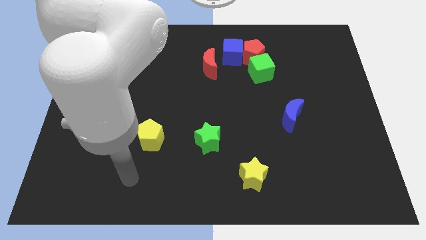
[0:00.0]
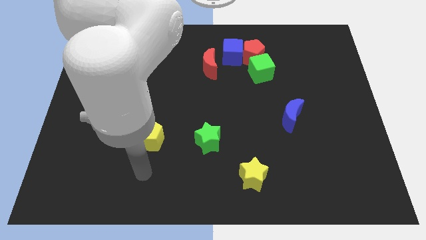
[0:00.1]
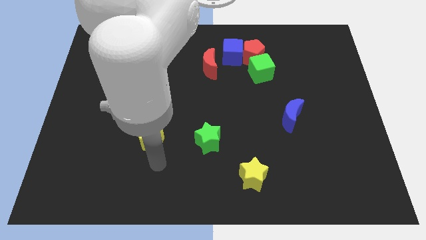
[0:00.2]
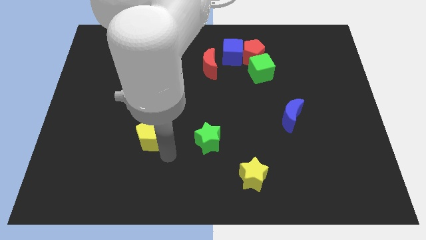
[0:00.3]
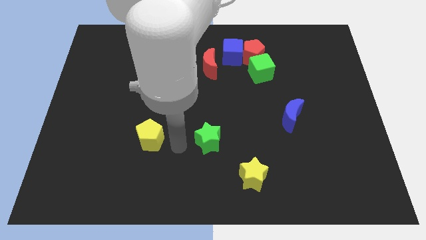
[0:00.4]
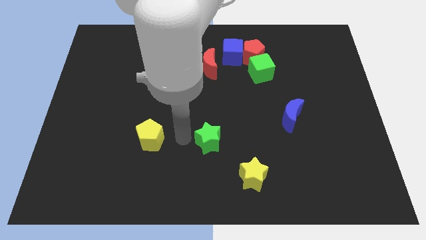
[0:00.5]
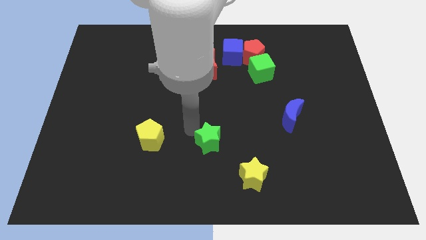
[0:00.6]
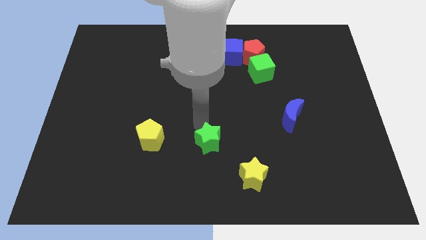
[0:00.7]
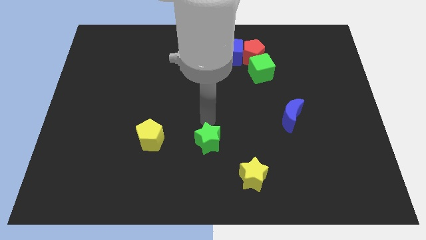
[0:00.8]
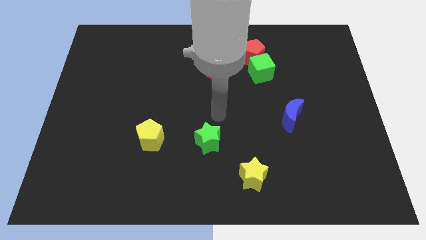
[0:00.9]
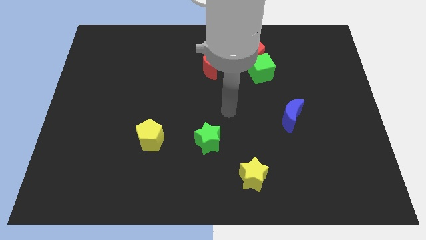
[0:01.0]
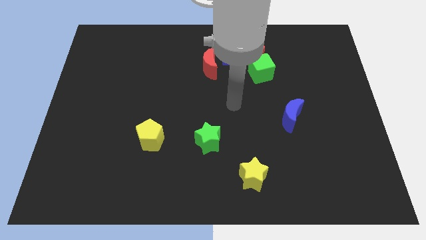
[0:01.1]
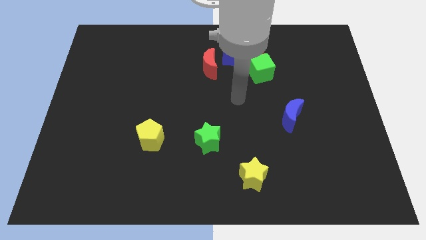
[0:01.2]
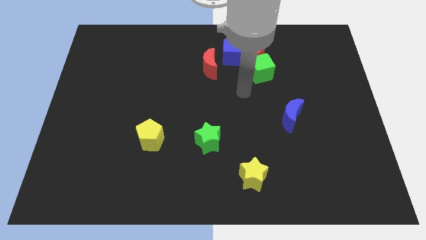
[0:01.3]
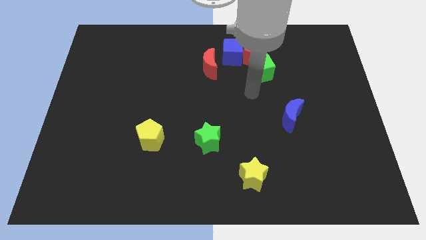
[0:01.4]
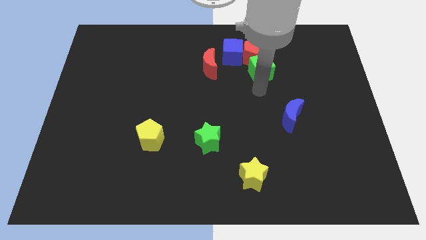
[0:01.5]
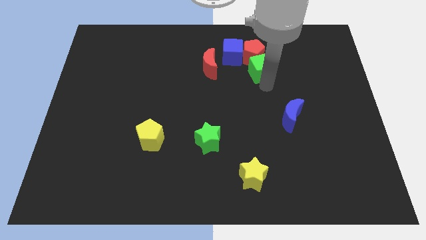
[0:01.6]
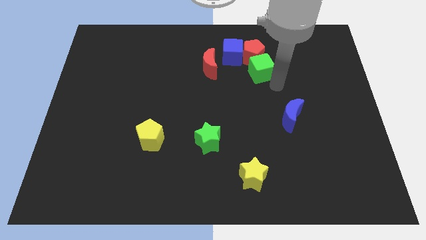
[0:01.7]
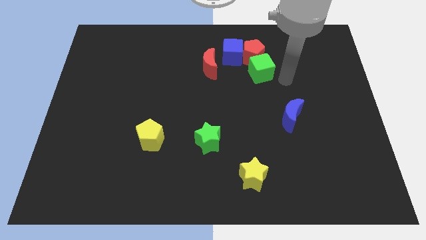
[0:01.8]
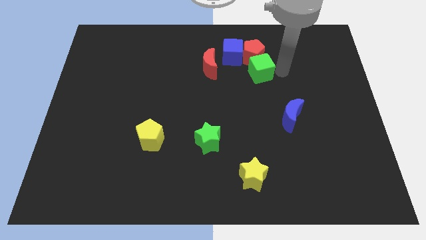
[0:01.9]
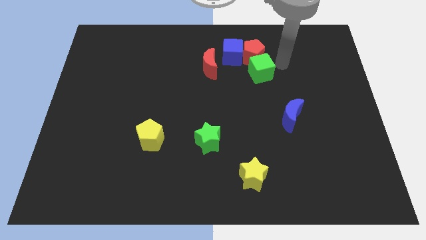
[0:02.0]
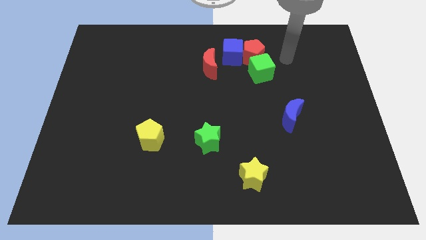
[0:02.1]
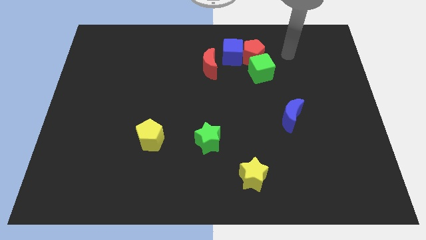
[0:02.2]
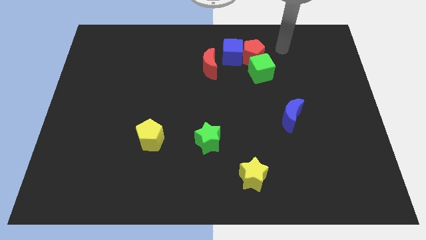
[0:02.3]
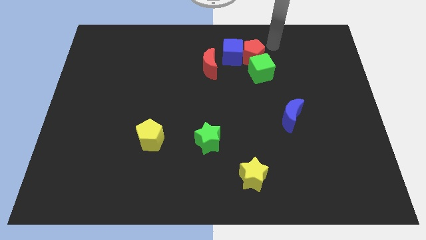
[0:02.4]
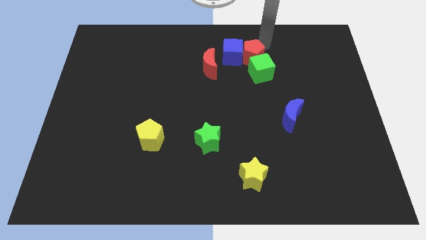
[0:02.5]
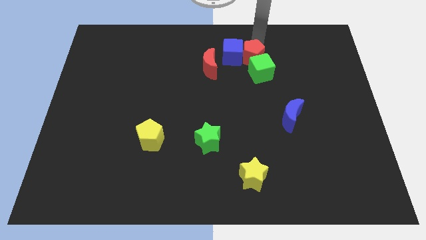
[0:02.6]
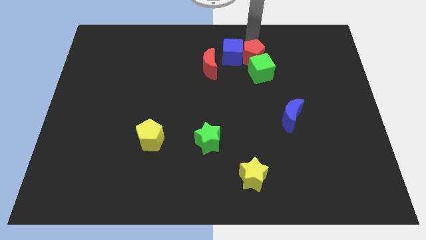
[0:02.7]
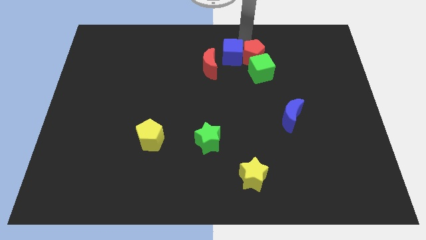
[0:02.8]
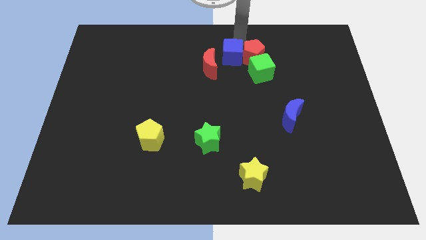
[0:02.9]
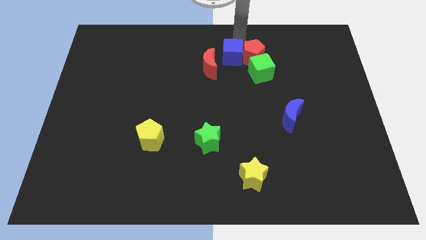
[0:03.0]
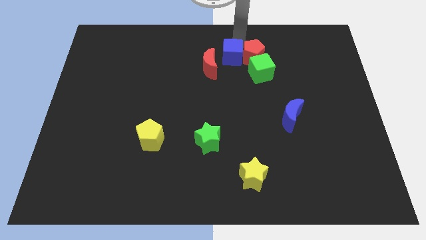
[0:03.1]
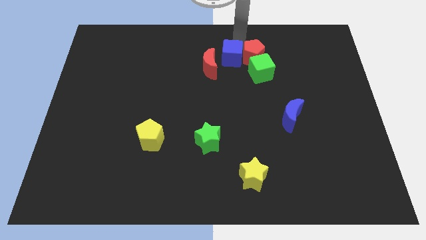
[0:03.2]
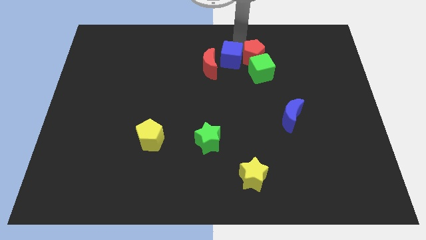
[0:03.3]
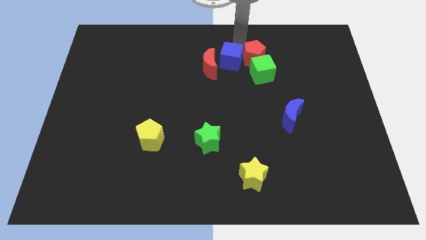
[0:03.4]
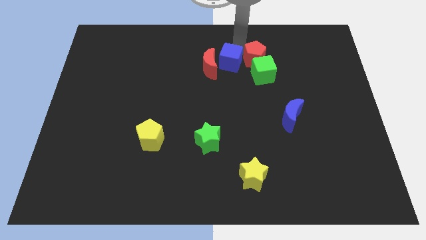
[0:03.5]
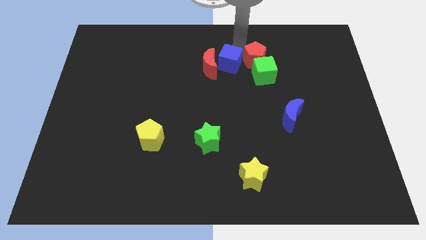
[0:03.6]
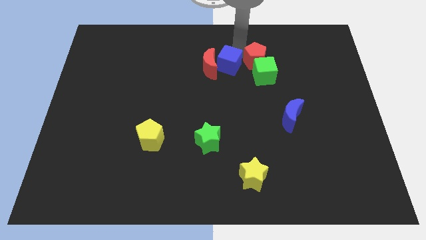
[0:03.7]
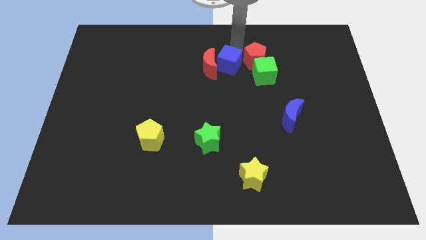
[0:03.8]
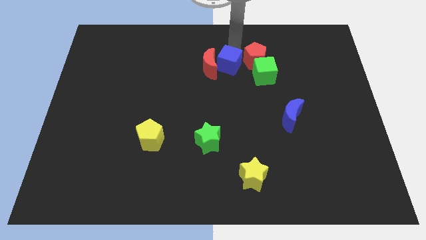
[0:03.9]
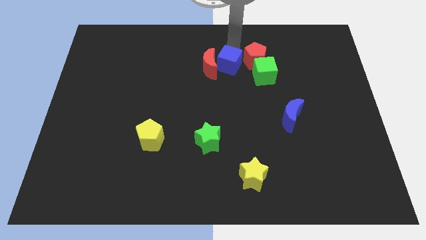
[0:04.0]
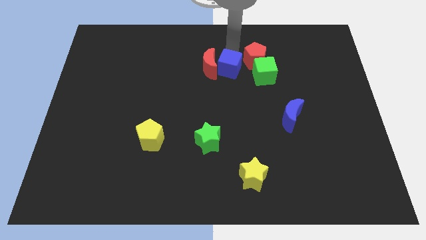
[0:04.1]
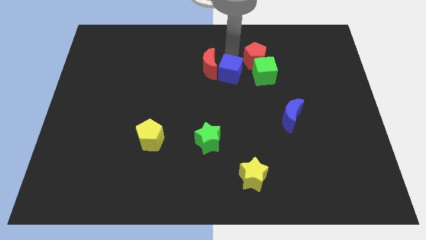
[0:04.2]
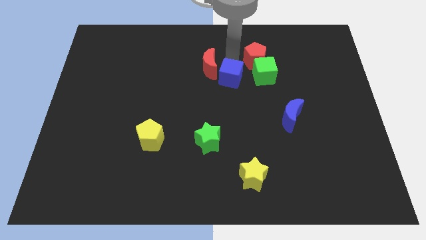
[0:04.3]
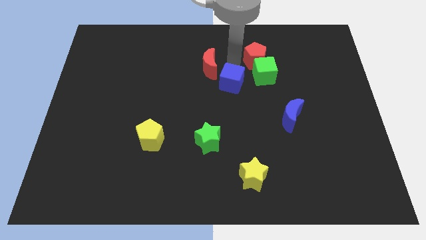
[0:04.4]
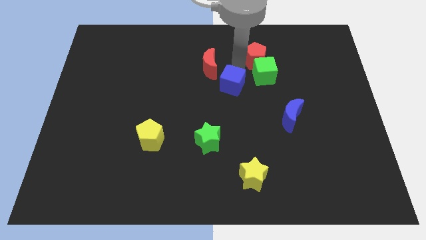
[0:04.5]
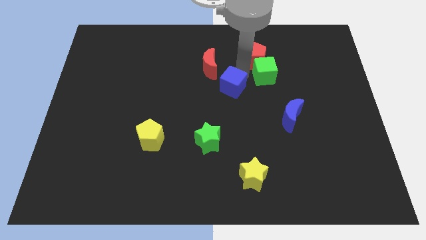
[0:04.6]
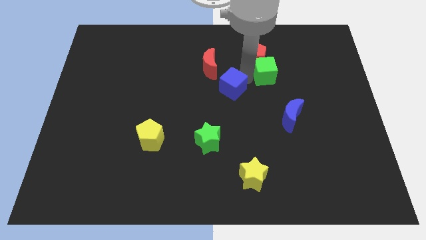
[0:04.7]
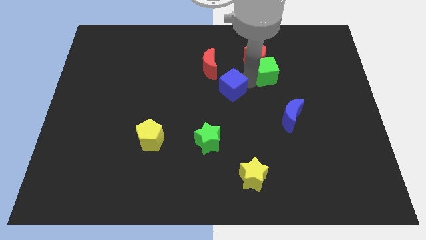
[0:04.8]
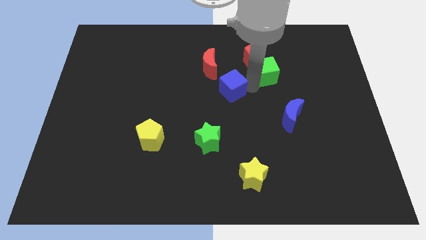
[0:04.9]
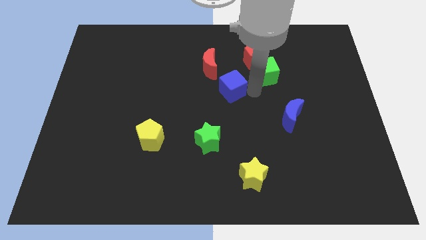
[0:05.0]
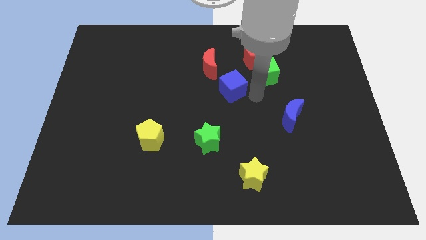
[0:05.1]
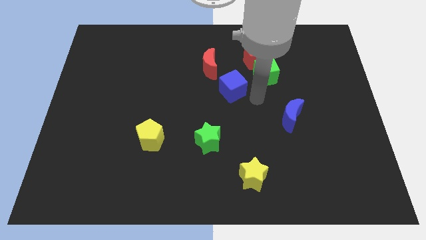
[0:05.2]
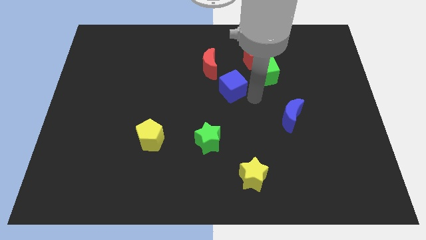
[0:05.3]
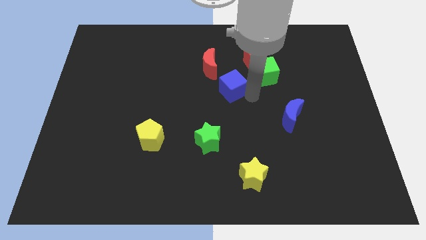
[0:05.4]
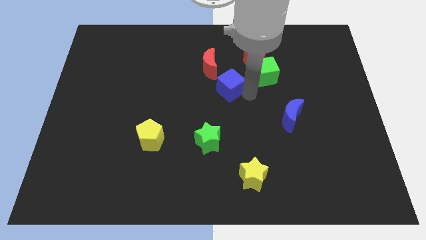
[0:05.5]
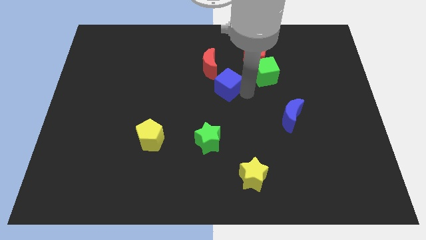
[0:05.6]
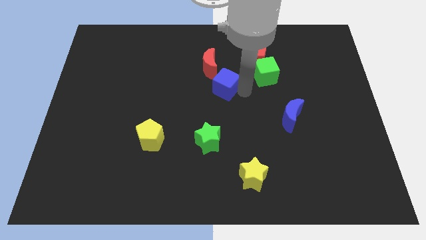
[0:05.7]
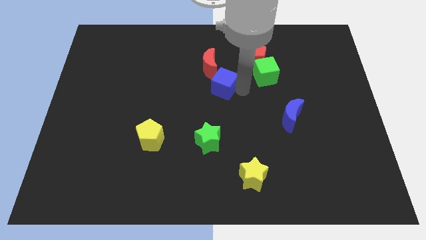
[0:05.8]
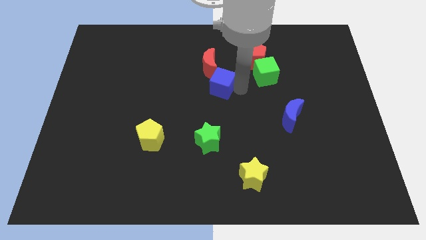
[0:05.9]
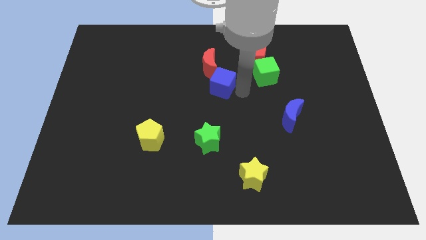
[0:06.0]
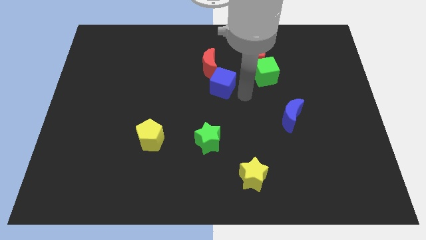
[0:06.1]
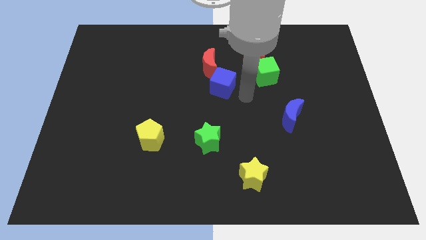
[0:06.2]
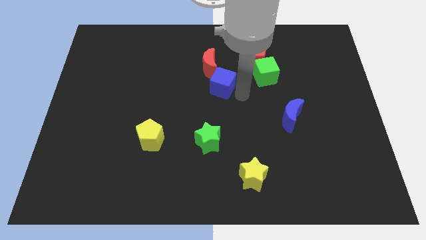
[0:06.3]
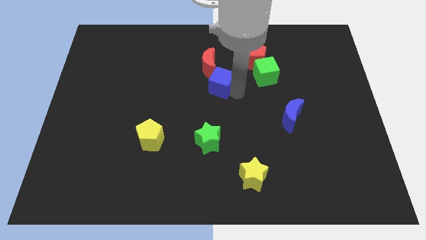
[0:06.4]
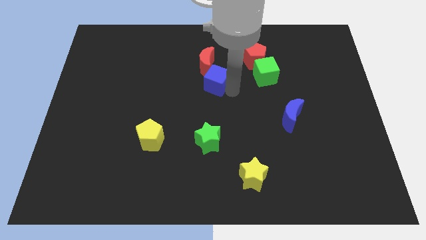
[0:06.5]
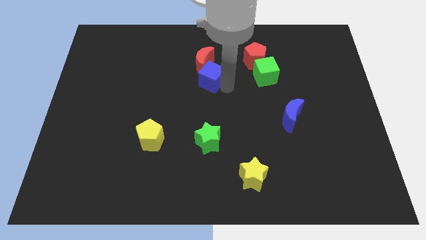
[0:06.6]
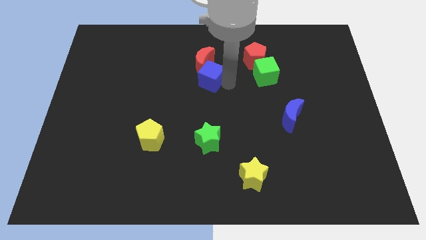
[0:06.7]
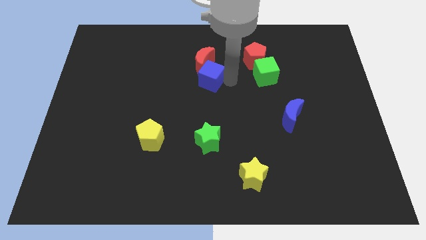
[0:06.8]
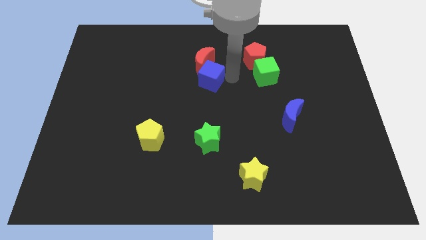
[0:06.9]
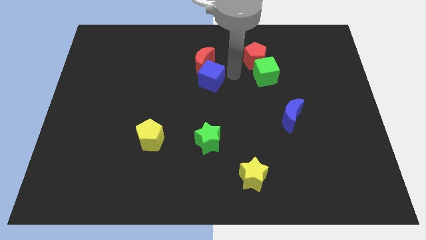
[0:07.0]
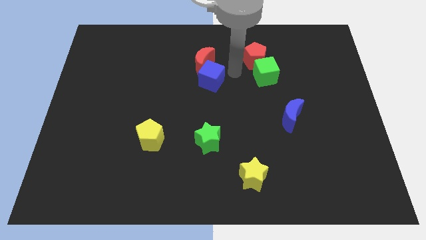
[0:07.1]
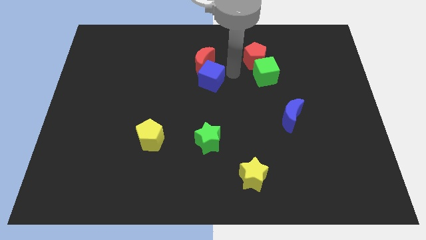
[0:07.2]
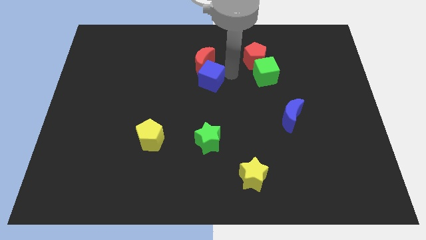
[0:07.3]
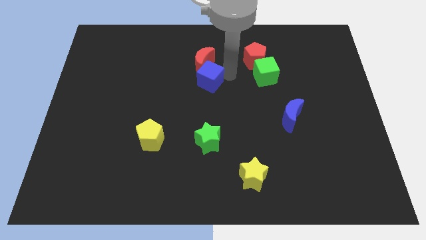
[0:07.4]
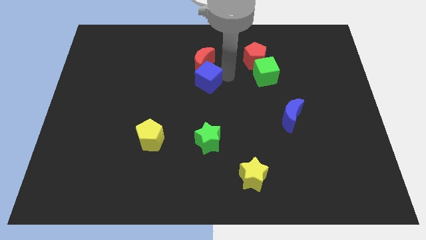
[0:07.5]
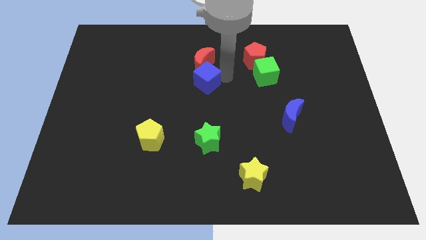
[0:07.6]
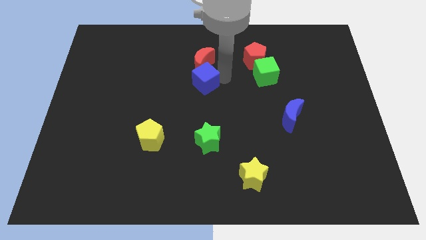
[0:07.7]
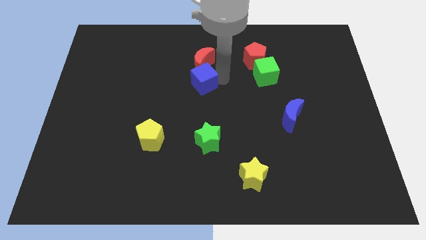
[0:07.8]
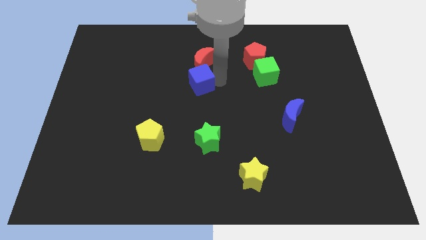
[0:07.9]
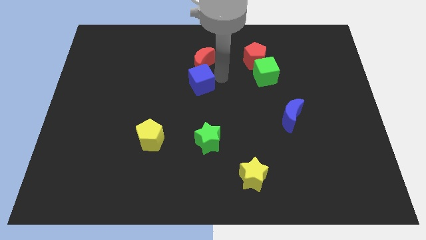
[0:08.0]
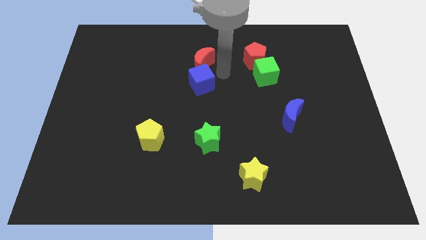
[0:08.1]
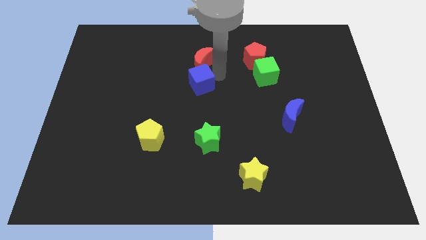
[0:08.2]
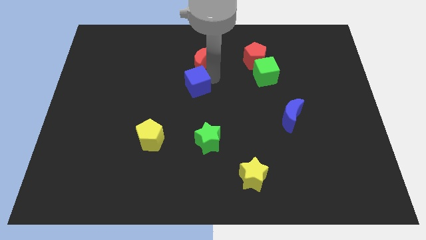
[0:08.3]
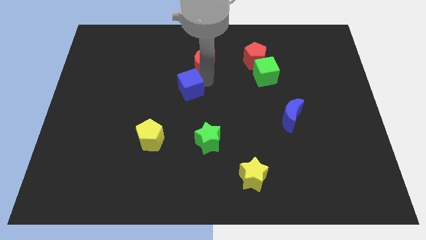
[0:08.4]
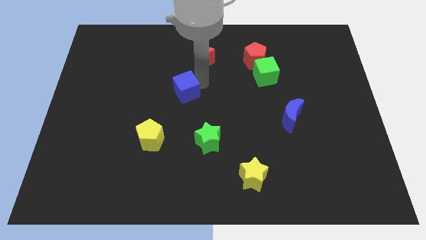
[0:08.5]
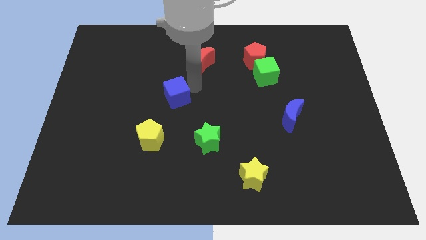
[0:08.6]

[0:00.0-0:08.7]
move the blue cube to the top of the yellow pentagon
